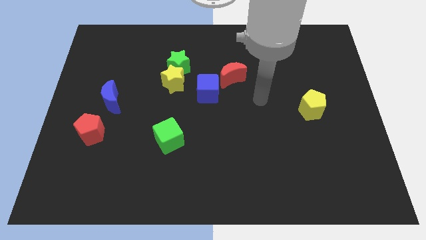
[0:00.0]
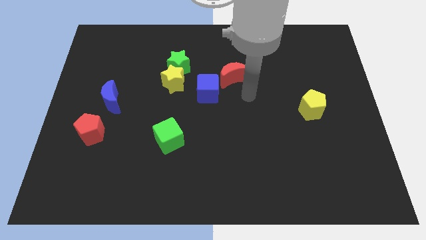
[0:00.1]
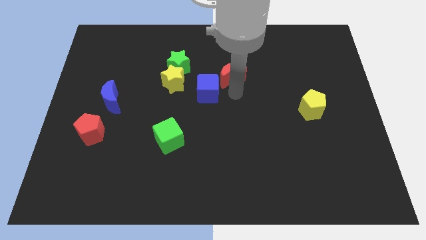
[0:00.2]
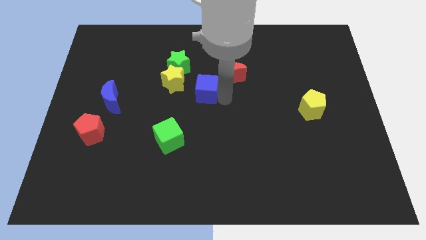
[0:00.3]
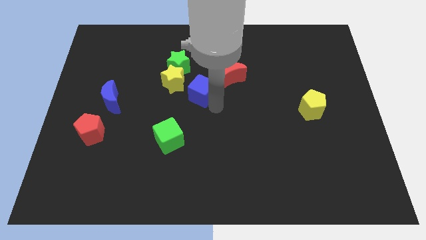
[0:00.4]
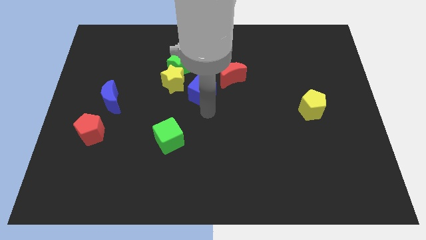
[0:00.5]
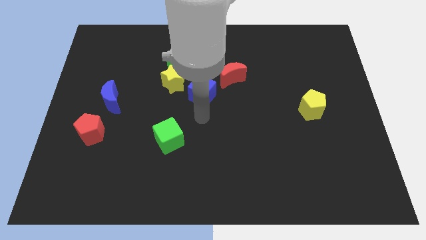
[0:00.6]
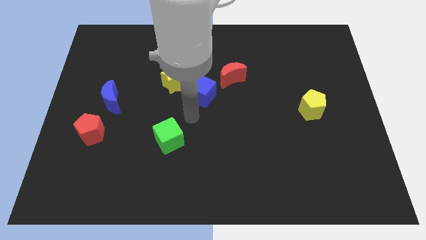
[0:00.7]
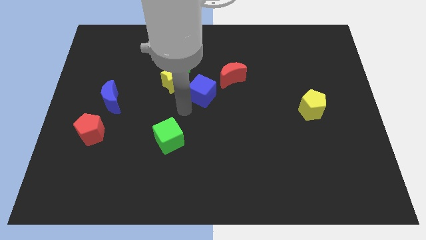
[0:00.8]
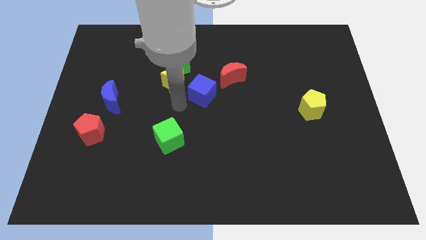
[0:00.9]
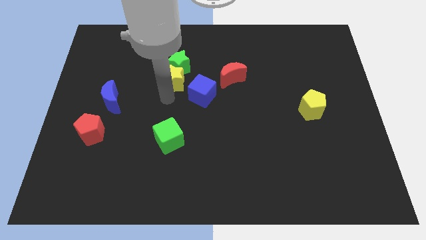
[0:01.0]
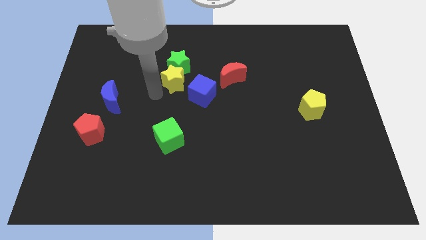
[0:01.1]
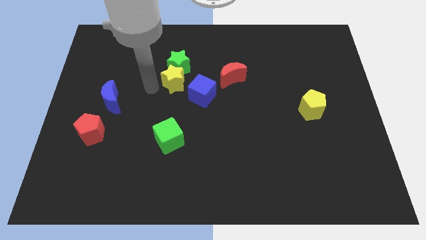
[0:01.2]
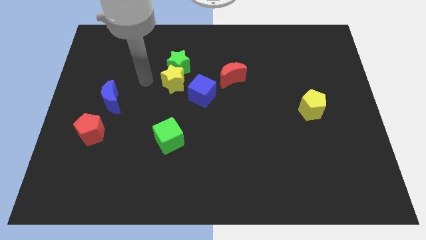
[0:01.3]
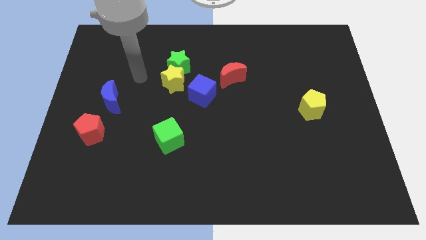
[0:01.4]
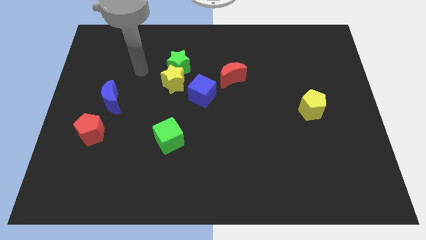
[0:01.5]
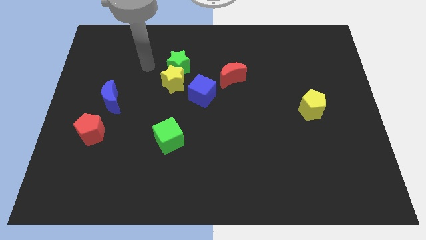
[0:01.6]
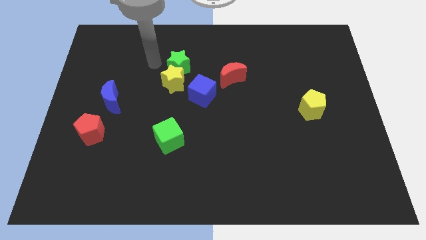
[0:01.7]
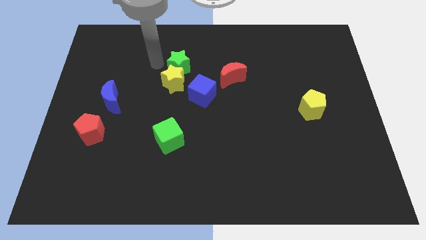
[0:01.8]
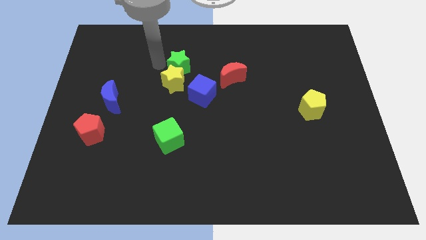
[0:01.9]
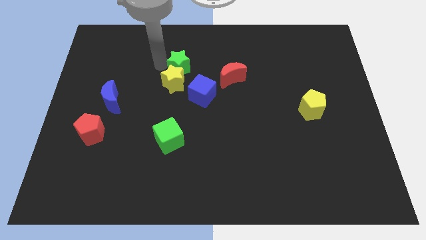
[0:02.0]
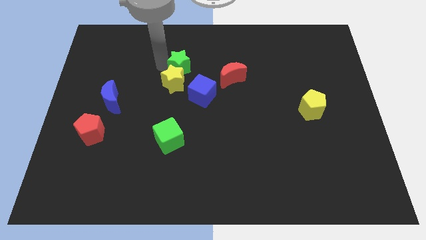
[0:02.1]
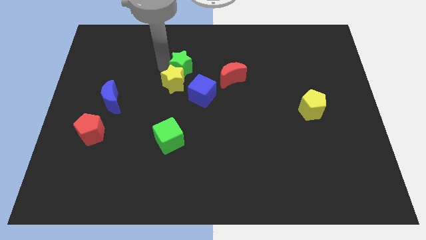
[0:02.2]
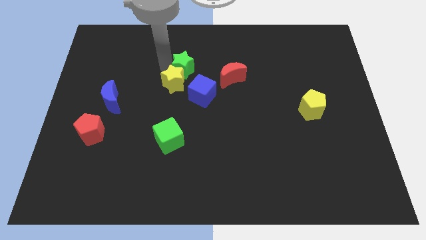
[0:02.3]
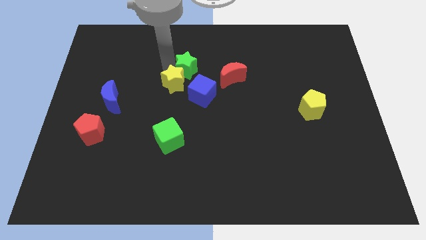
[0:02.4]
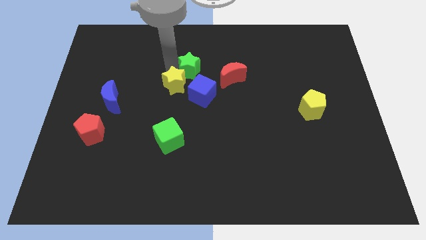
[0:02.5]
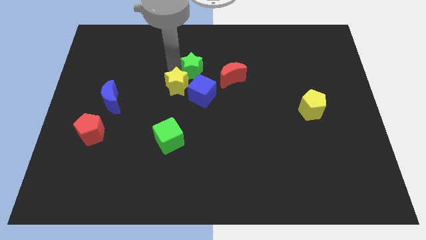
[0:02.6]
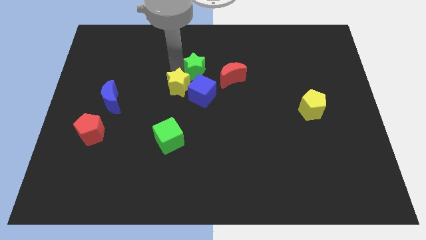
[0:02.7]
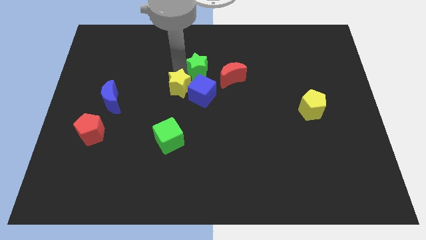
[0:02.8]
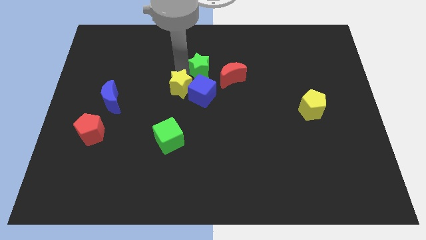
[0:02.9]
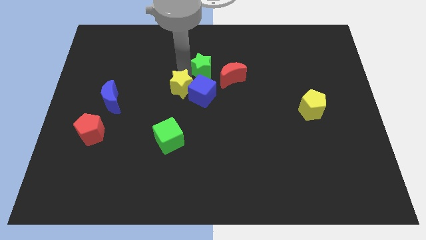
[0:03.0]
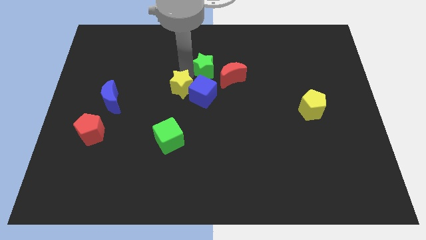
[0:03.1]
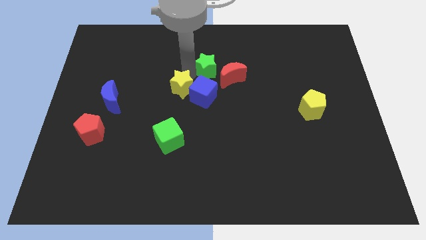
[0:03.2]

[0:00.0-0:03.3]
move the green star a little bit to the right

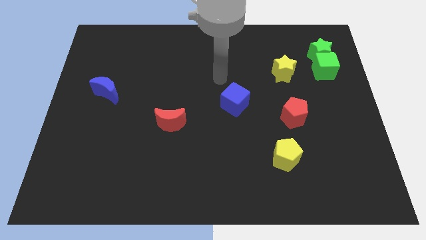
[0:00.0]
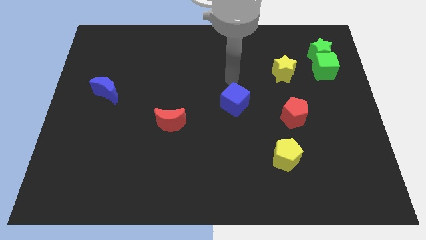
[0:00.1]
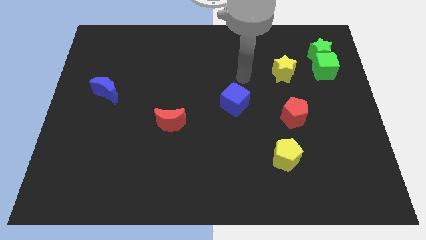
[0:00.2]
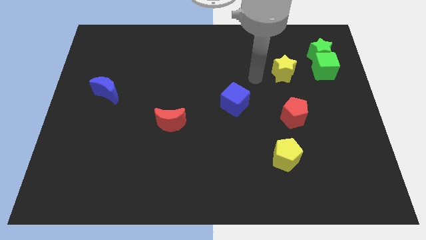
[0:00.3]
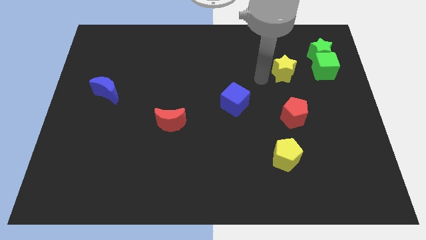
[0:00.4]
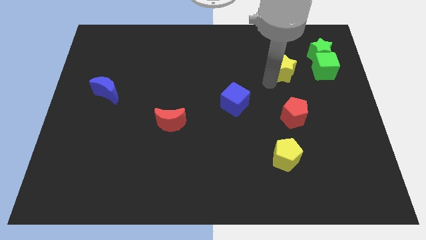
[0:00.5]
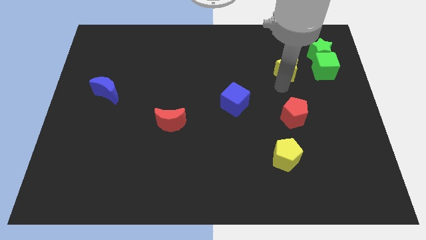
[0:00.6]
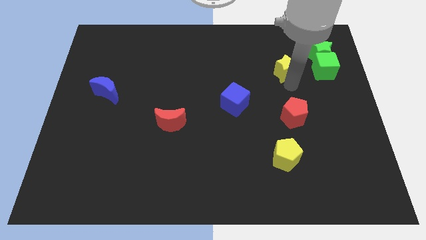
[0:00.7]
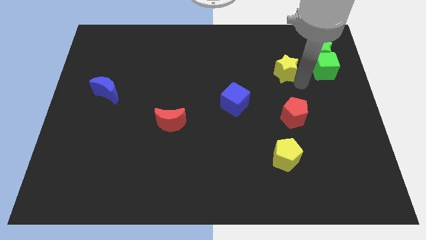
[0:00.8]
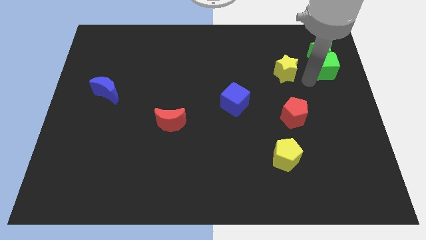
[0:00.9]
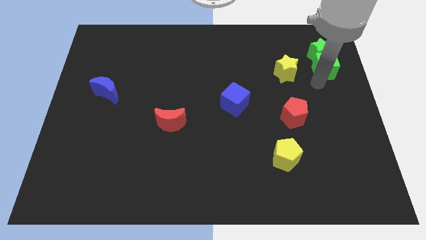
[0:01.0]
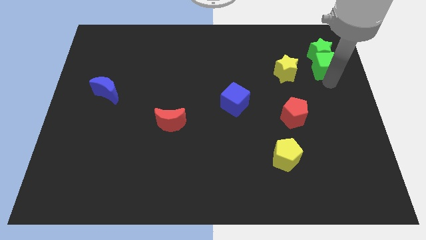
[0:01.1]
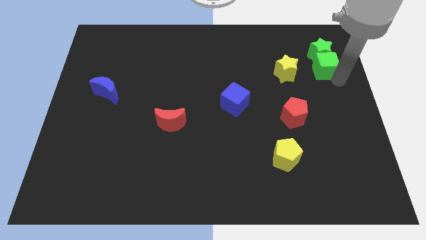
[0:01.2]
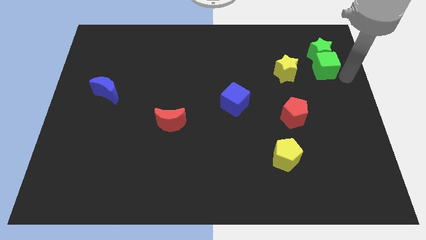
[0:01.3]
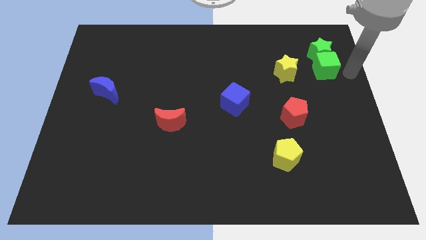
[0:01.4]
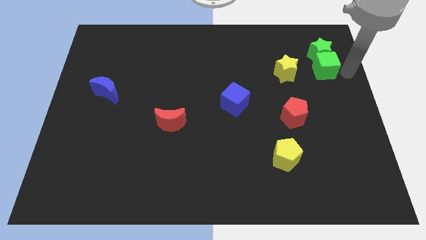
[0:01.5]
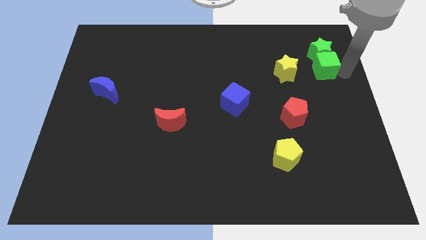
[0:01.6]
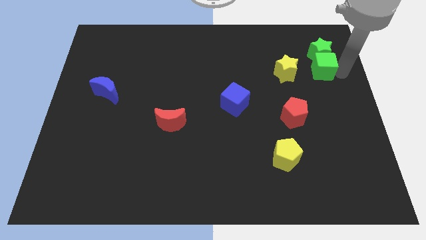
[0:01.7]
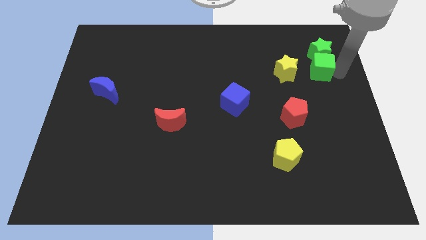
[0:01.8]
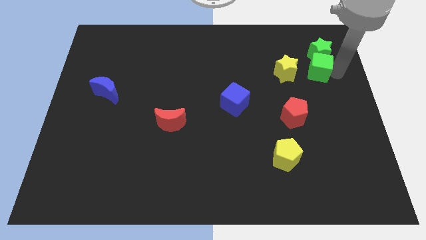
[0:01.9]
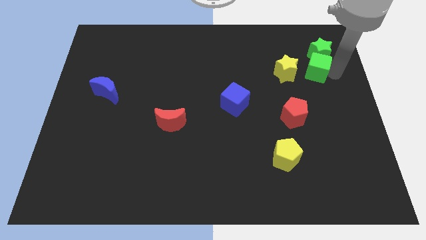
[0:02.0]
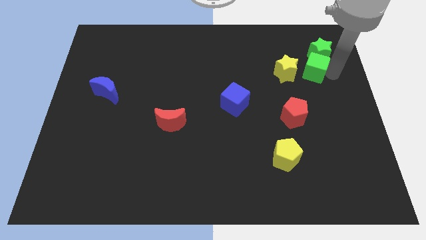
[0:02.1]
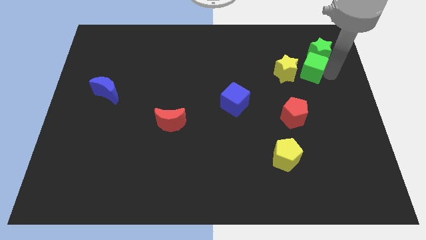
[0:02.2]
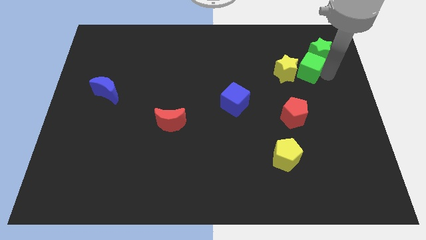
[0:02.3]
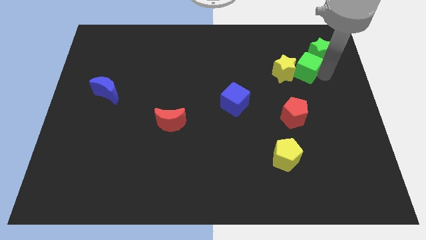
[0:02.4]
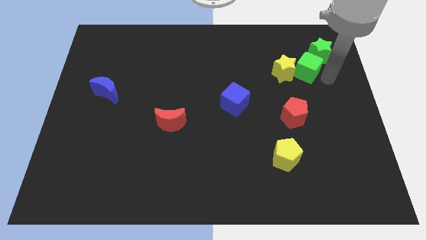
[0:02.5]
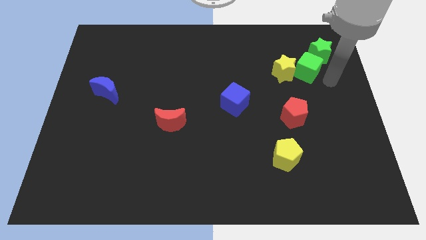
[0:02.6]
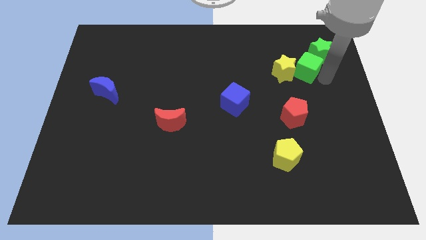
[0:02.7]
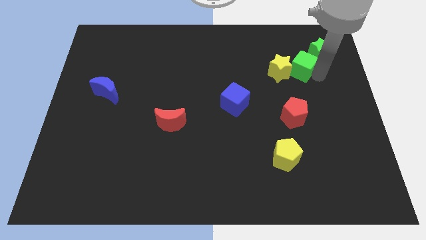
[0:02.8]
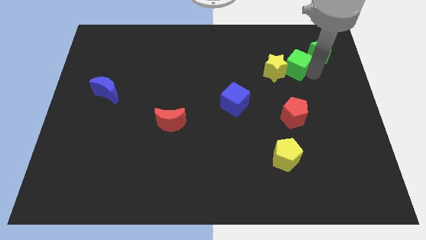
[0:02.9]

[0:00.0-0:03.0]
move the green cube a bit left

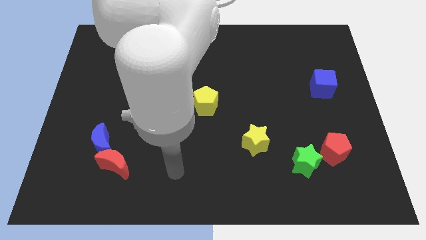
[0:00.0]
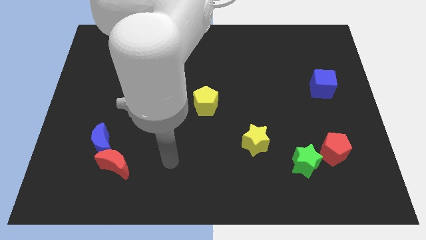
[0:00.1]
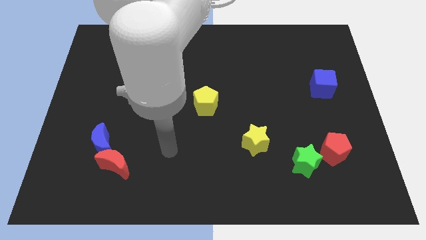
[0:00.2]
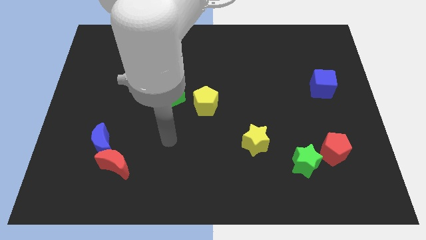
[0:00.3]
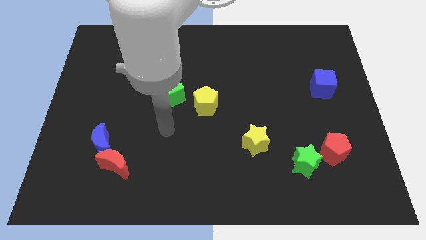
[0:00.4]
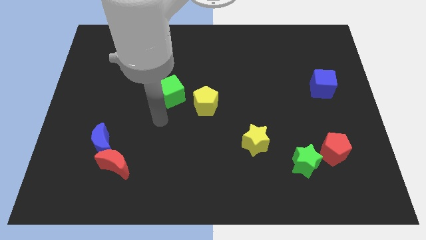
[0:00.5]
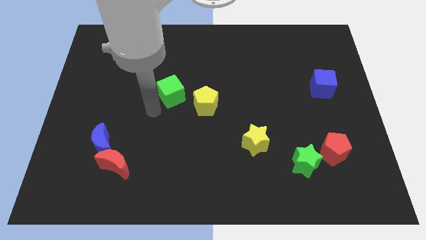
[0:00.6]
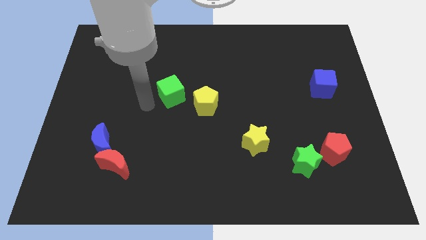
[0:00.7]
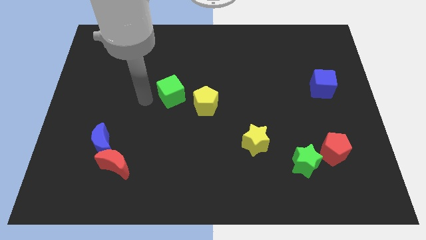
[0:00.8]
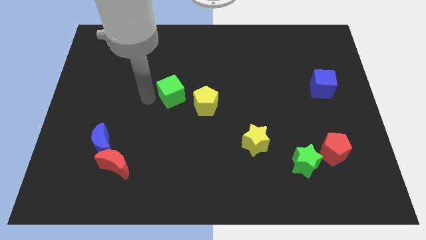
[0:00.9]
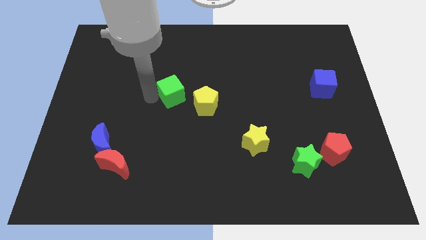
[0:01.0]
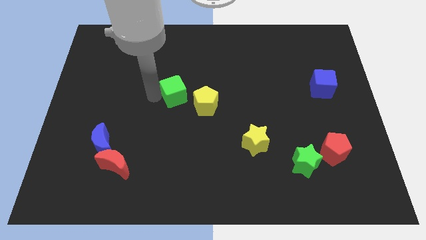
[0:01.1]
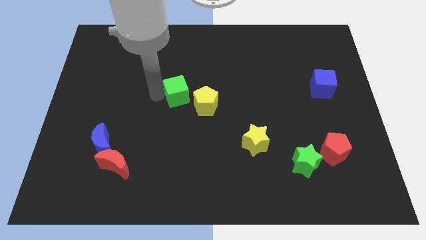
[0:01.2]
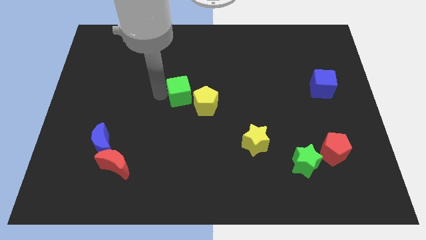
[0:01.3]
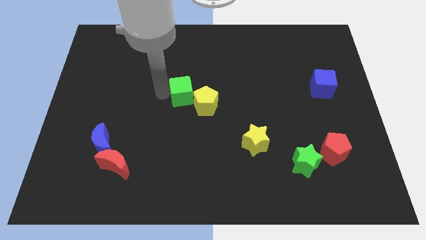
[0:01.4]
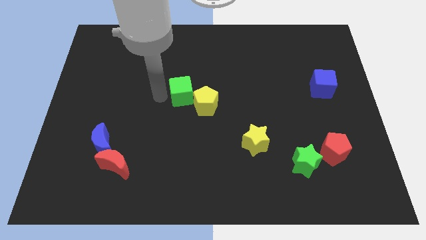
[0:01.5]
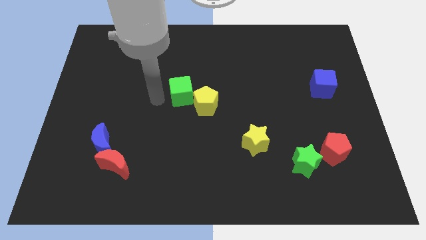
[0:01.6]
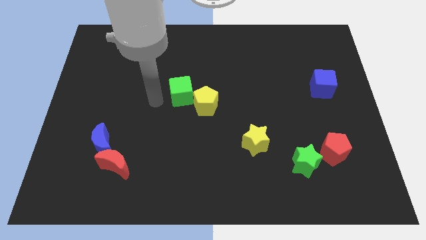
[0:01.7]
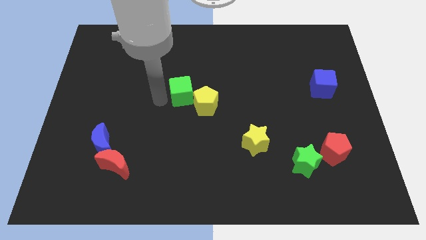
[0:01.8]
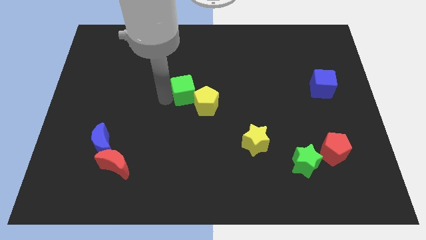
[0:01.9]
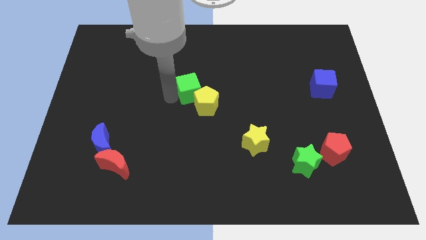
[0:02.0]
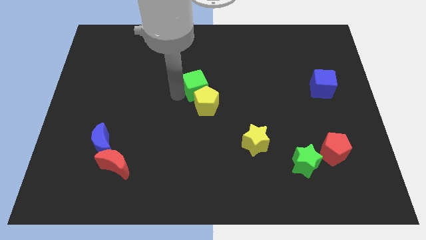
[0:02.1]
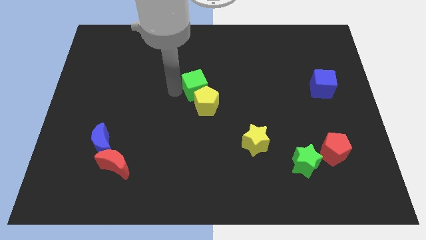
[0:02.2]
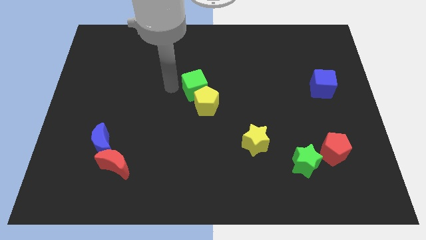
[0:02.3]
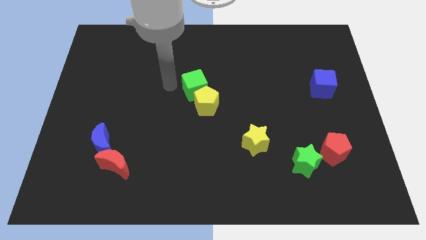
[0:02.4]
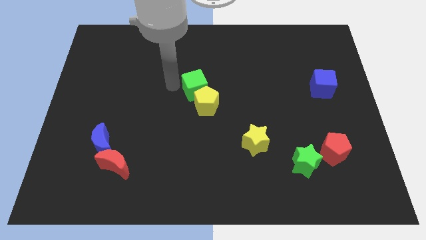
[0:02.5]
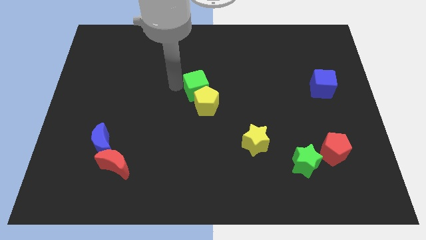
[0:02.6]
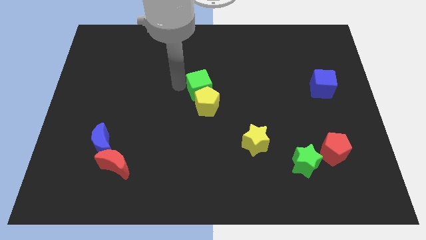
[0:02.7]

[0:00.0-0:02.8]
slide the green cube a little to the right
